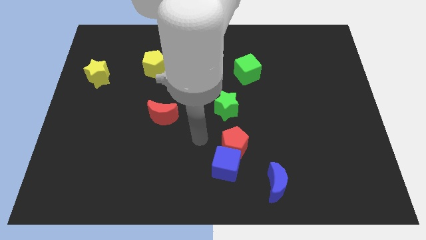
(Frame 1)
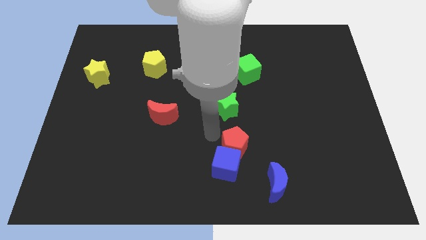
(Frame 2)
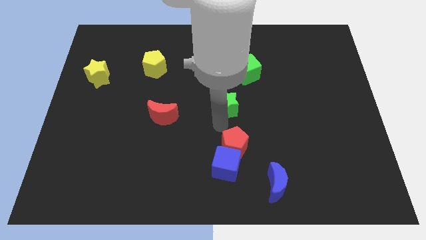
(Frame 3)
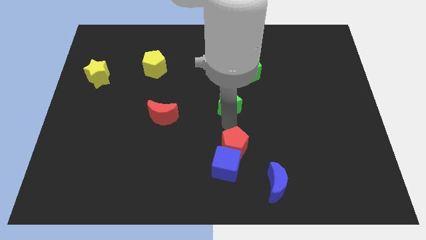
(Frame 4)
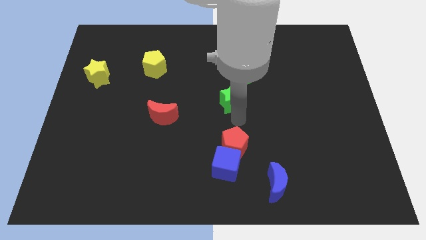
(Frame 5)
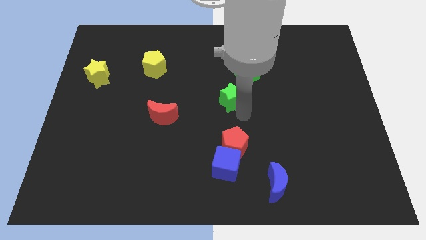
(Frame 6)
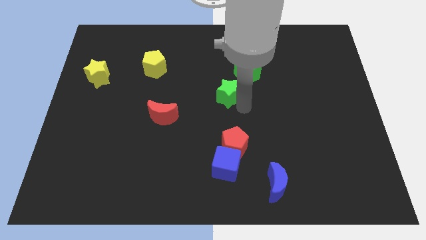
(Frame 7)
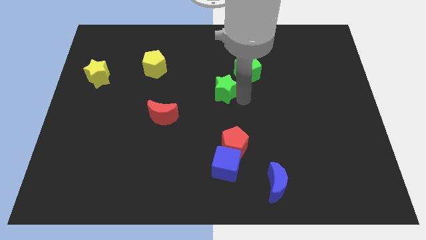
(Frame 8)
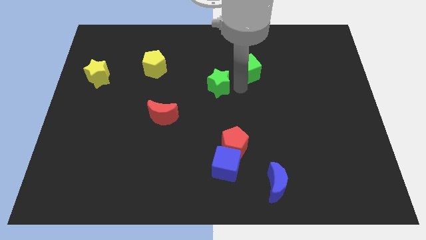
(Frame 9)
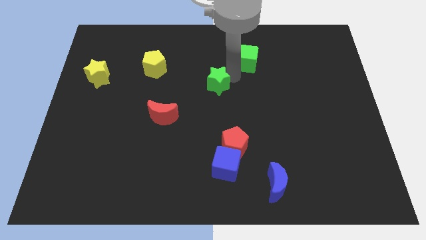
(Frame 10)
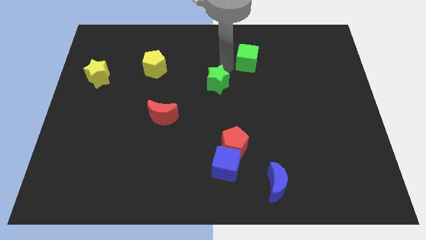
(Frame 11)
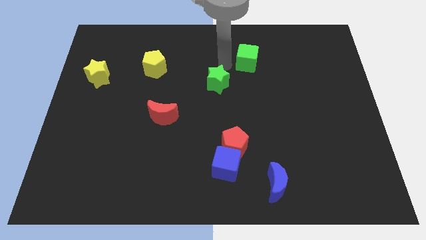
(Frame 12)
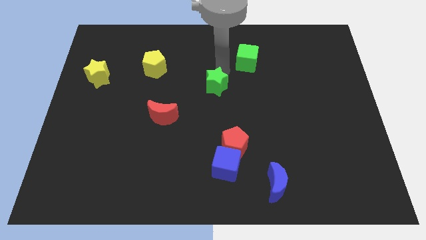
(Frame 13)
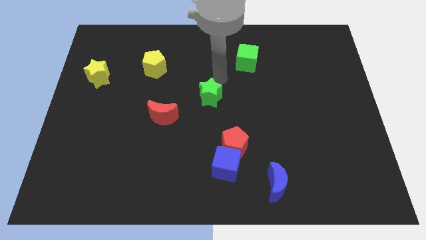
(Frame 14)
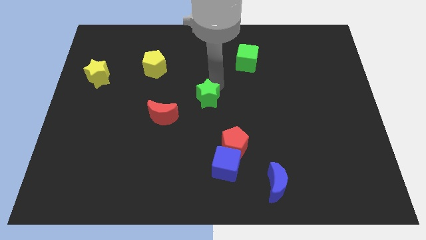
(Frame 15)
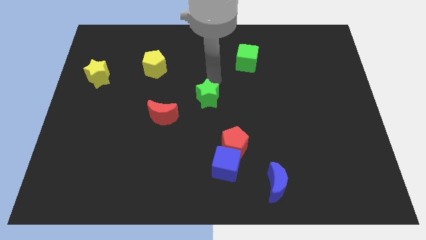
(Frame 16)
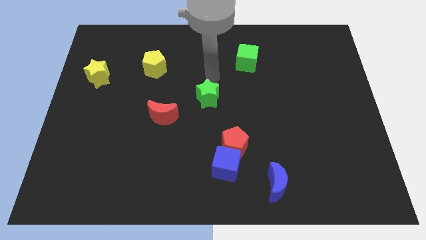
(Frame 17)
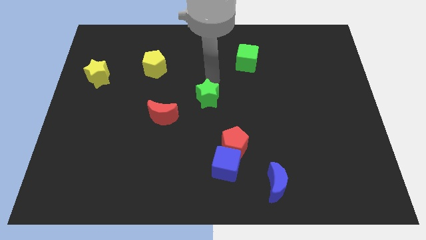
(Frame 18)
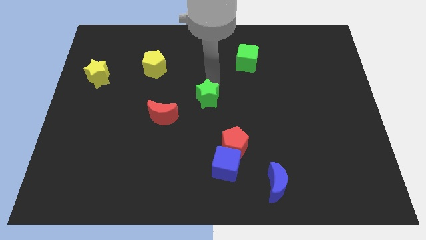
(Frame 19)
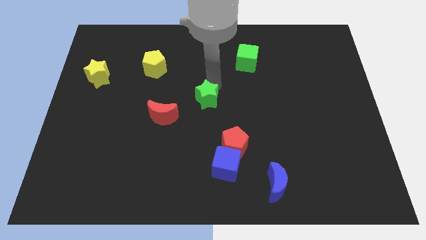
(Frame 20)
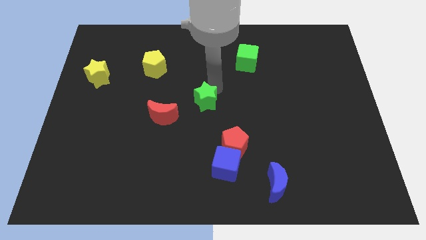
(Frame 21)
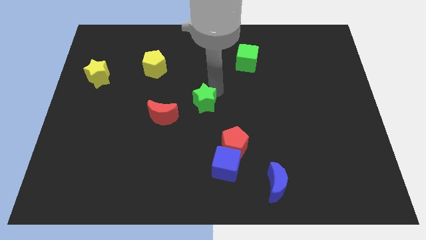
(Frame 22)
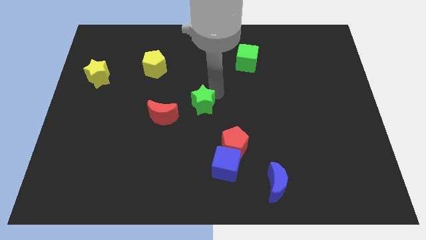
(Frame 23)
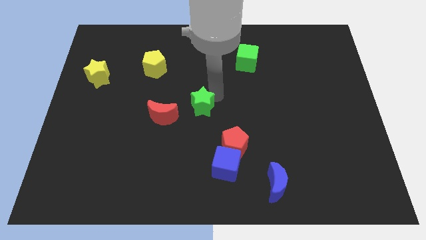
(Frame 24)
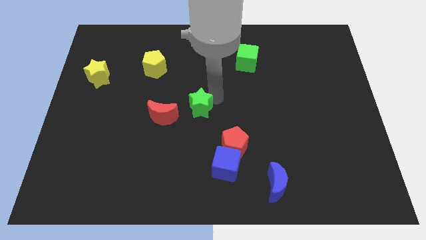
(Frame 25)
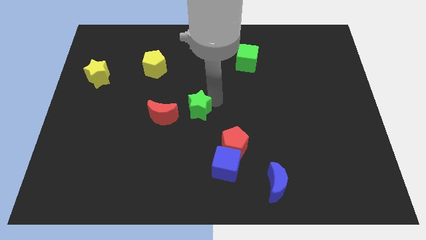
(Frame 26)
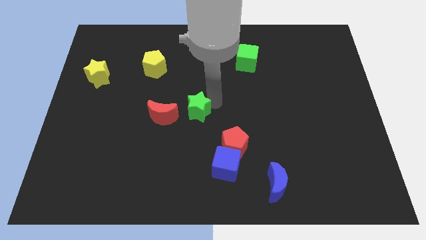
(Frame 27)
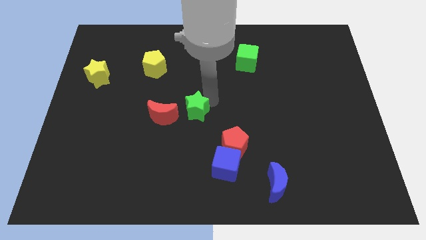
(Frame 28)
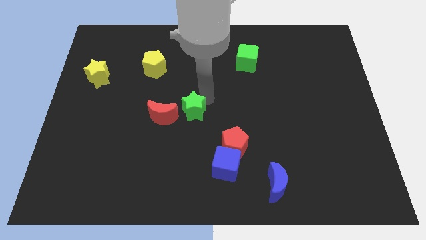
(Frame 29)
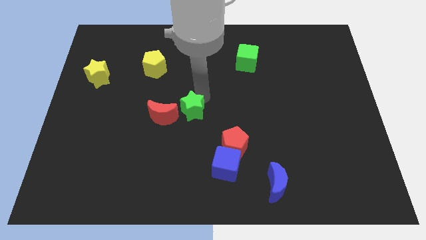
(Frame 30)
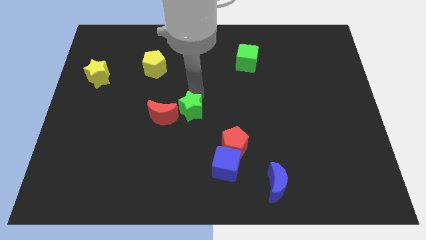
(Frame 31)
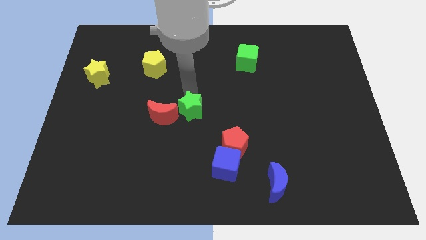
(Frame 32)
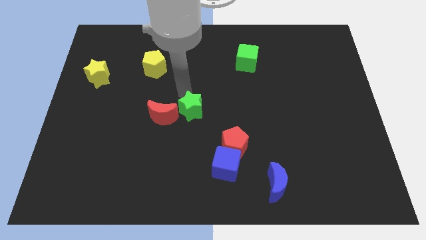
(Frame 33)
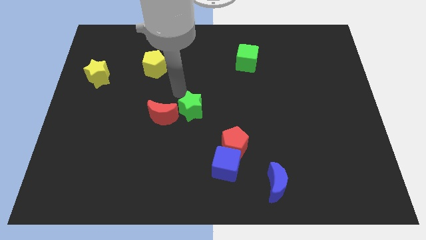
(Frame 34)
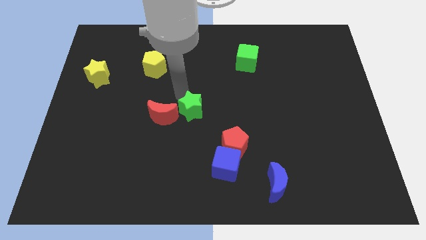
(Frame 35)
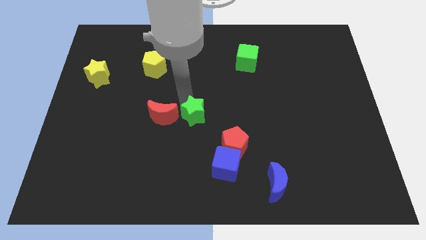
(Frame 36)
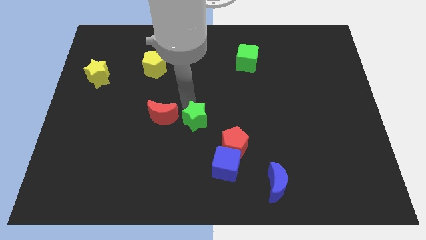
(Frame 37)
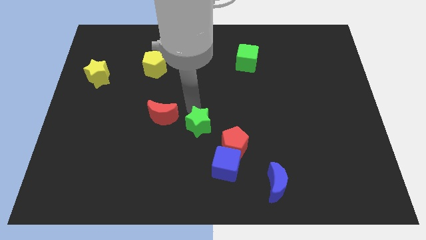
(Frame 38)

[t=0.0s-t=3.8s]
slightly slide the green star down and left

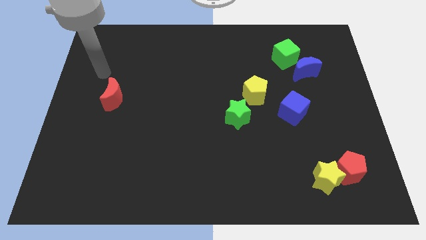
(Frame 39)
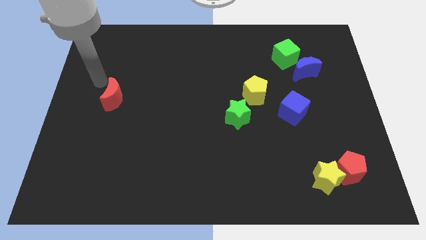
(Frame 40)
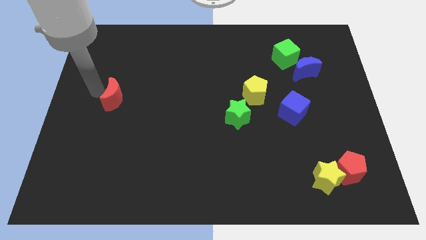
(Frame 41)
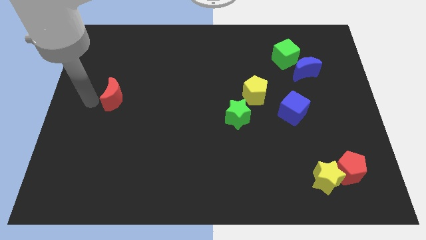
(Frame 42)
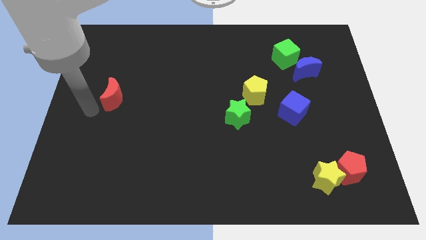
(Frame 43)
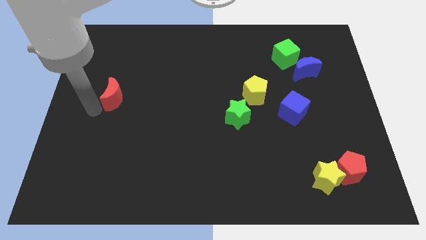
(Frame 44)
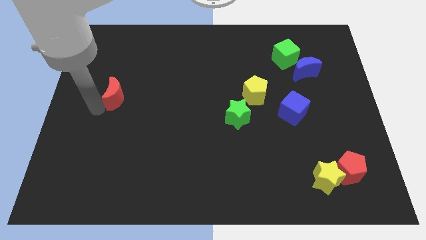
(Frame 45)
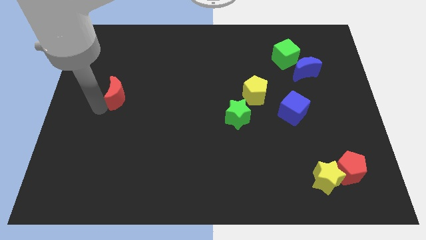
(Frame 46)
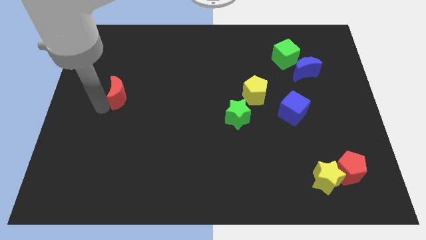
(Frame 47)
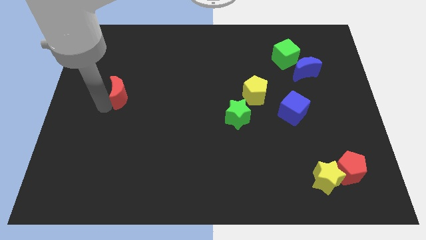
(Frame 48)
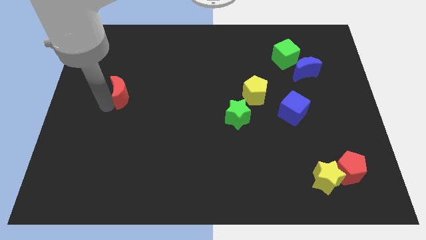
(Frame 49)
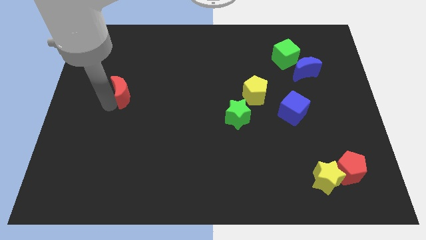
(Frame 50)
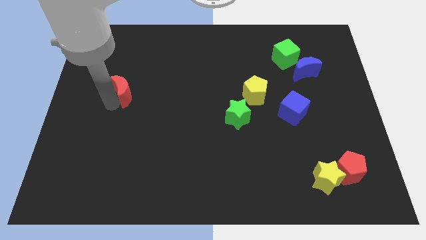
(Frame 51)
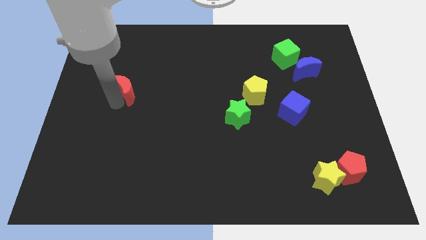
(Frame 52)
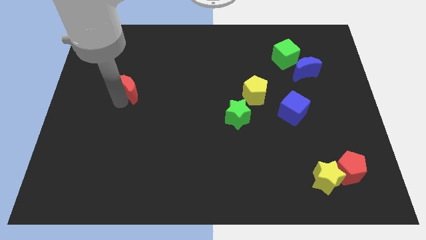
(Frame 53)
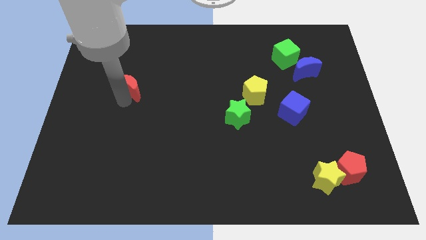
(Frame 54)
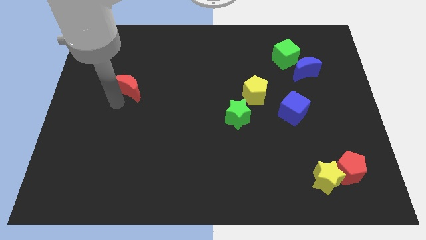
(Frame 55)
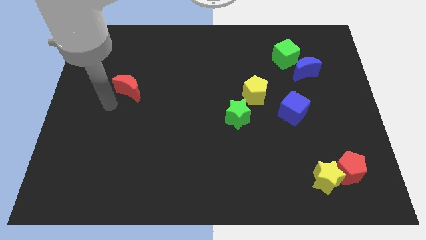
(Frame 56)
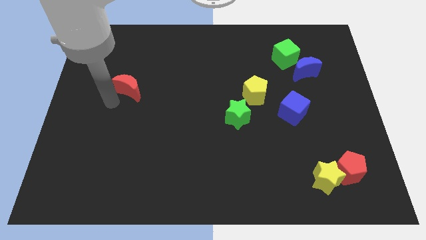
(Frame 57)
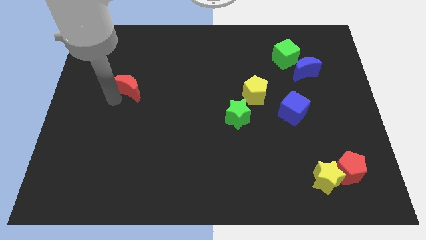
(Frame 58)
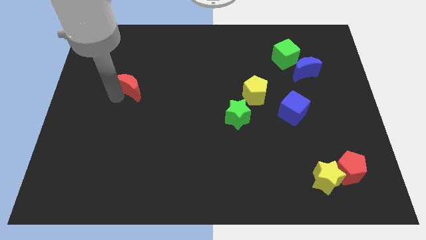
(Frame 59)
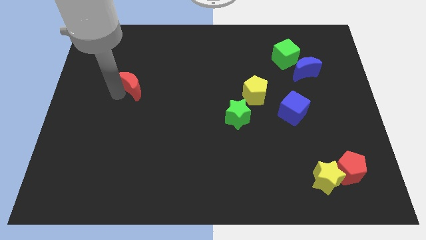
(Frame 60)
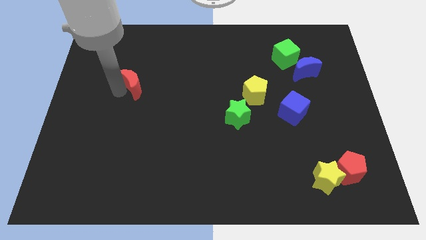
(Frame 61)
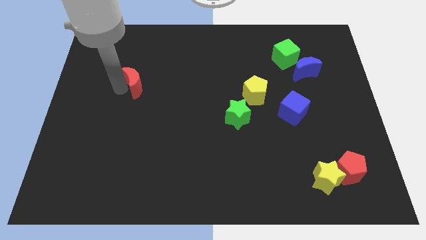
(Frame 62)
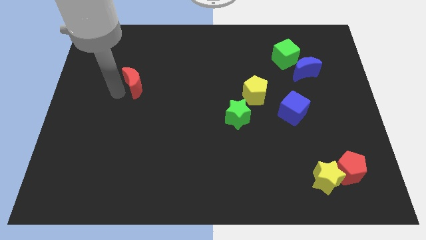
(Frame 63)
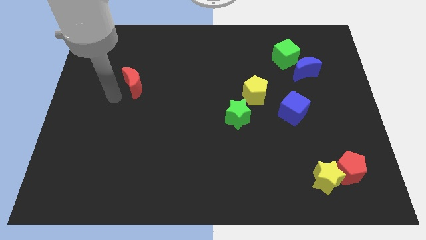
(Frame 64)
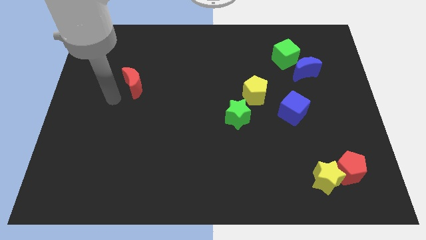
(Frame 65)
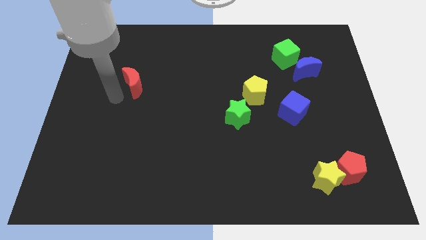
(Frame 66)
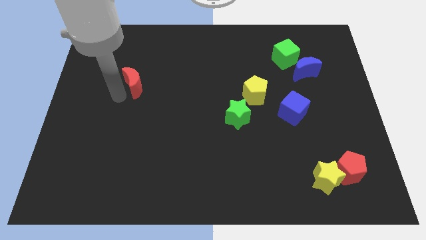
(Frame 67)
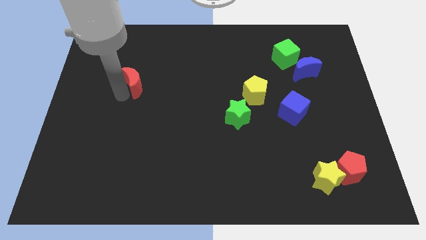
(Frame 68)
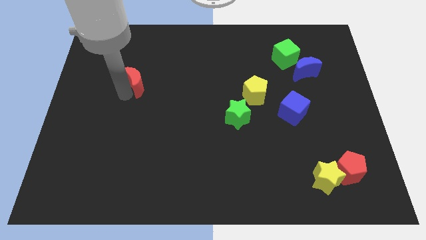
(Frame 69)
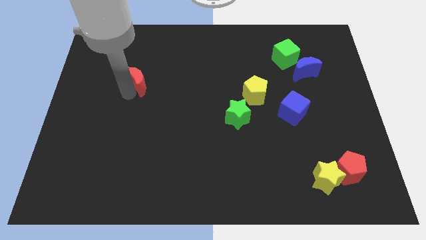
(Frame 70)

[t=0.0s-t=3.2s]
move the red moon up and then right a bit

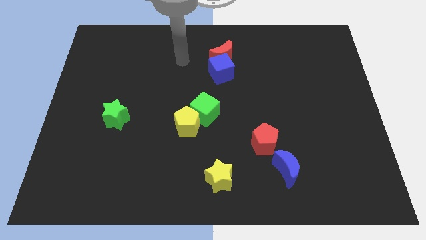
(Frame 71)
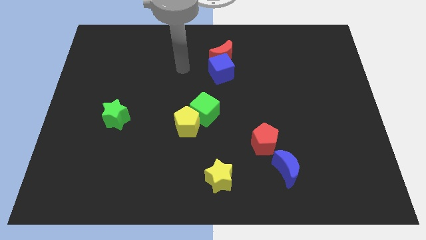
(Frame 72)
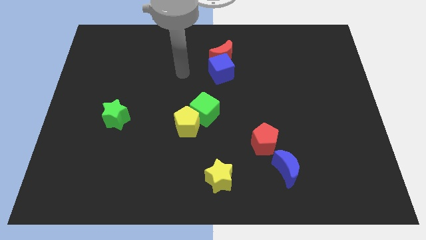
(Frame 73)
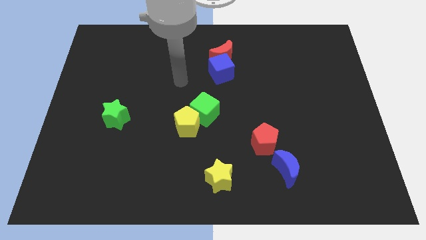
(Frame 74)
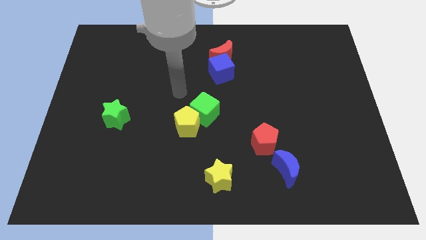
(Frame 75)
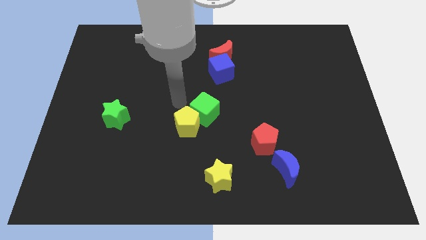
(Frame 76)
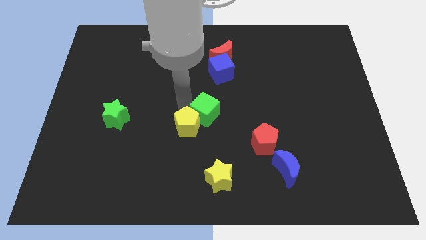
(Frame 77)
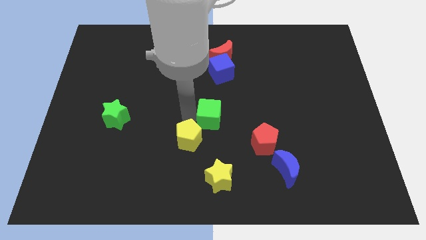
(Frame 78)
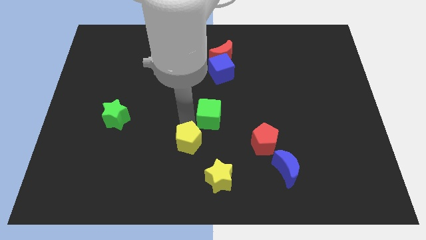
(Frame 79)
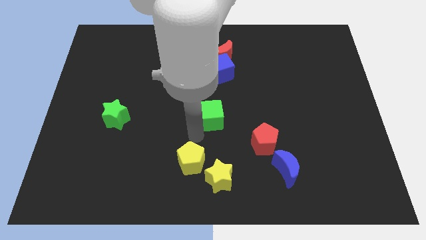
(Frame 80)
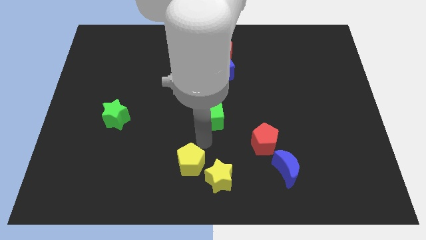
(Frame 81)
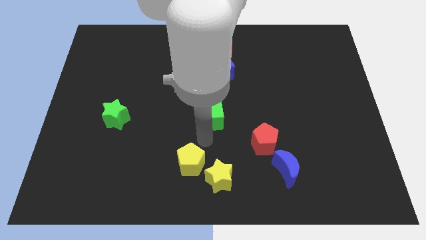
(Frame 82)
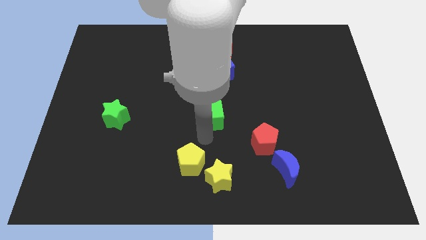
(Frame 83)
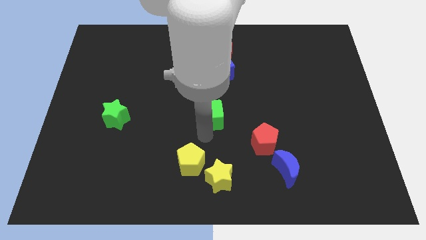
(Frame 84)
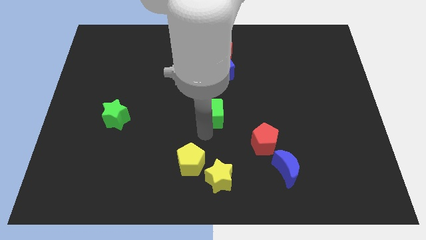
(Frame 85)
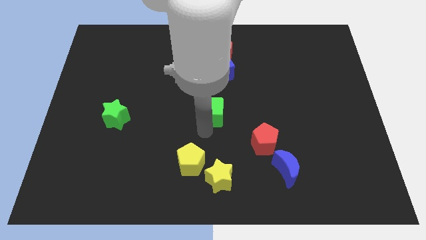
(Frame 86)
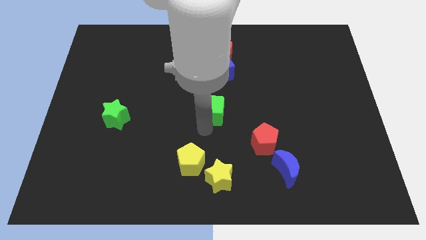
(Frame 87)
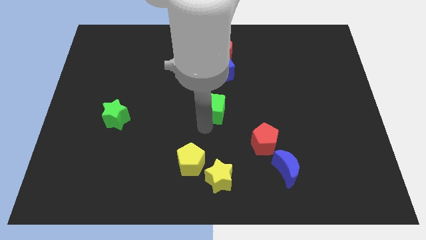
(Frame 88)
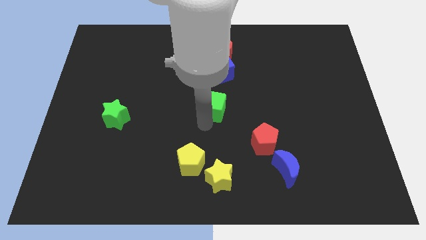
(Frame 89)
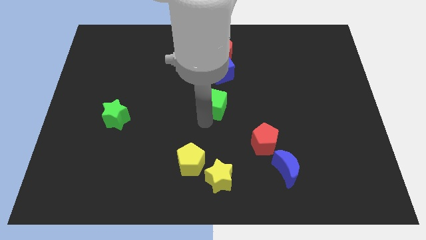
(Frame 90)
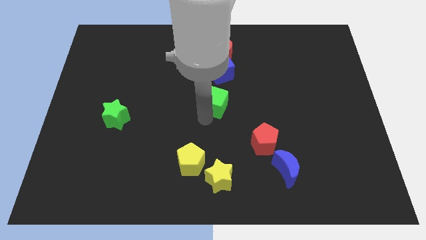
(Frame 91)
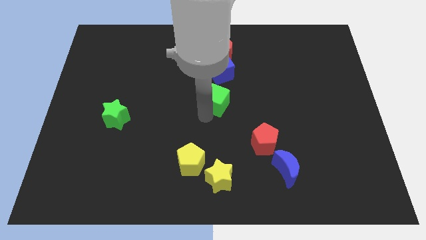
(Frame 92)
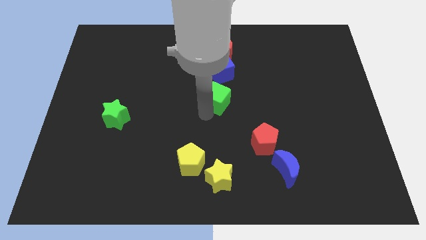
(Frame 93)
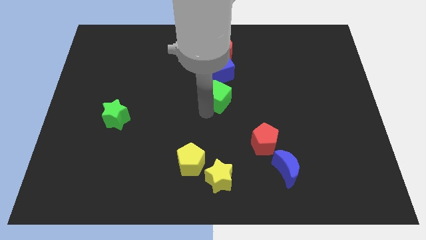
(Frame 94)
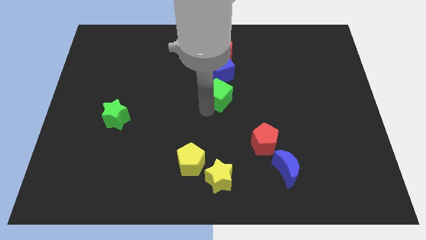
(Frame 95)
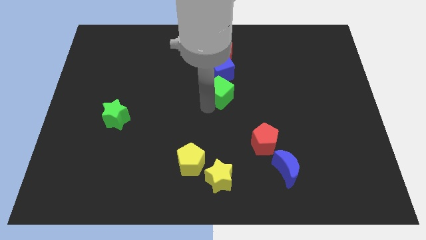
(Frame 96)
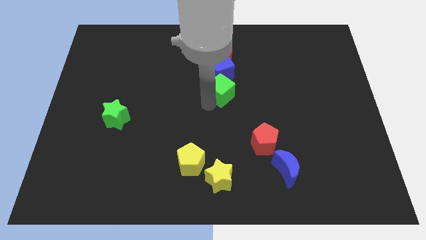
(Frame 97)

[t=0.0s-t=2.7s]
slightly slide the green cube diagonally up and to the right
